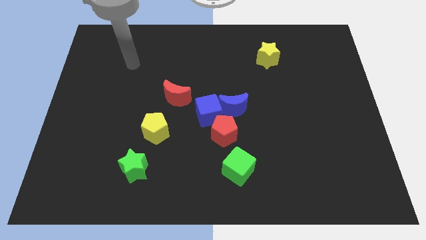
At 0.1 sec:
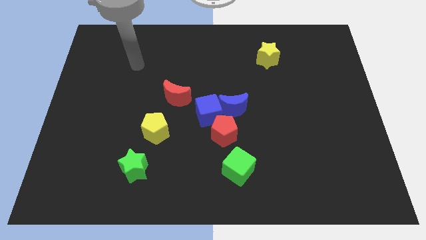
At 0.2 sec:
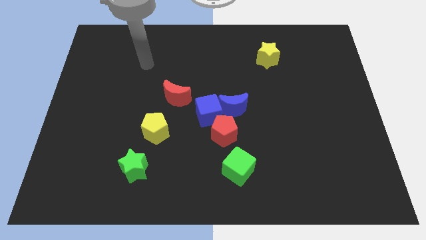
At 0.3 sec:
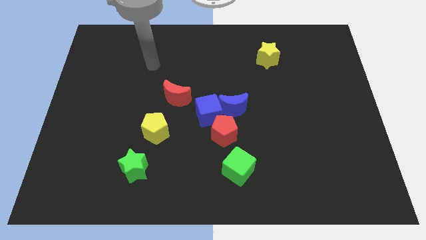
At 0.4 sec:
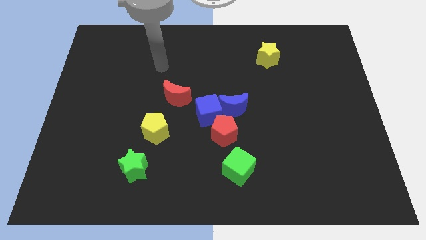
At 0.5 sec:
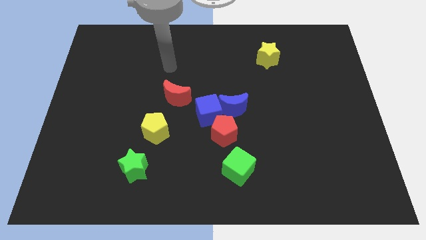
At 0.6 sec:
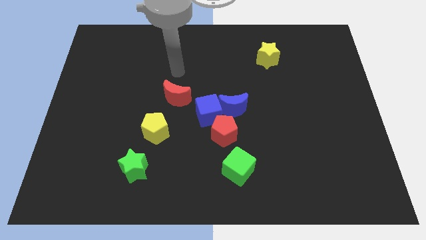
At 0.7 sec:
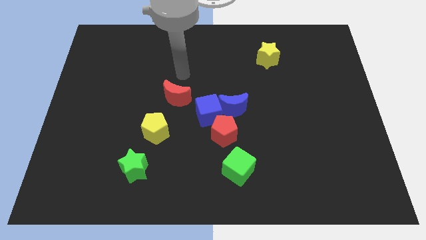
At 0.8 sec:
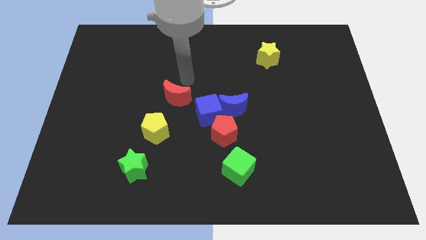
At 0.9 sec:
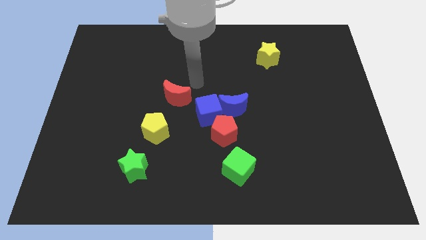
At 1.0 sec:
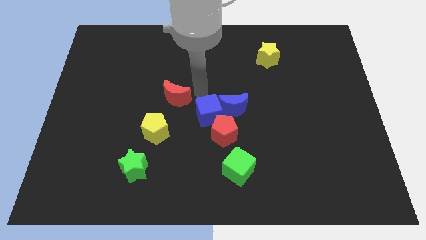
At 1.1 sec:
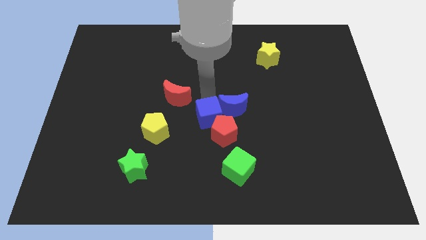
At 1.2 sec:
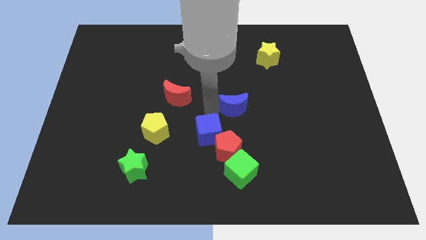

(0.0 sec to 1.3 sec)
separate the blue moon from the blue cube and red pentagon

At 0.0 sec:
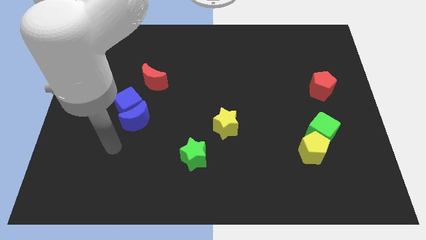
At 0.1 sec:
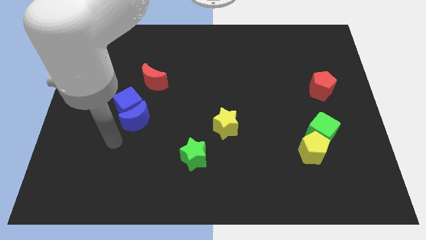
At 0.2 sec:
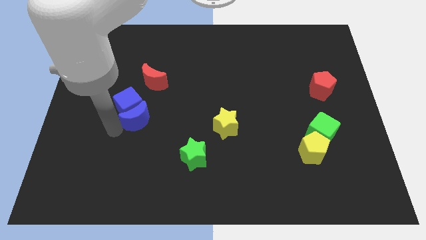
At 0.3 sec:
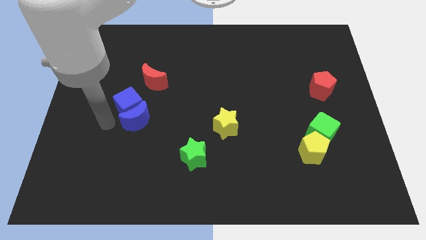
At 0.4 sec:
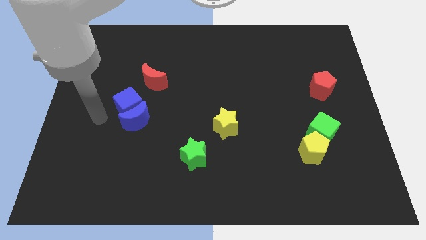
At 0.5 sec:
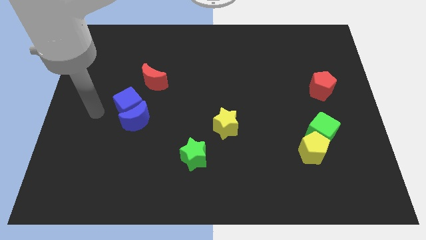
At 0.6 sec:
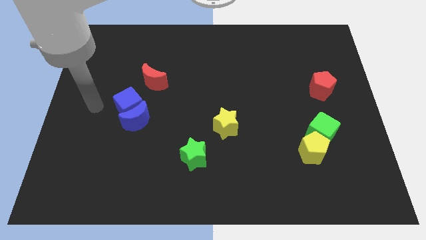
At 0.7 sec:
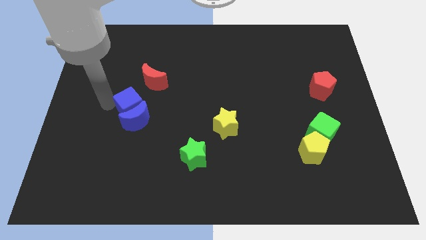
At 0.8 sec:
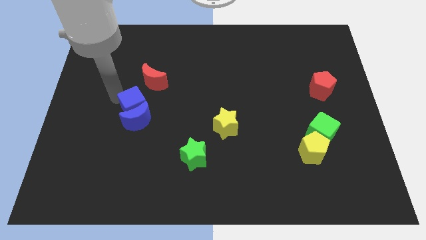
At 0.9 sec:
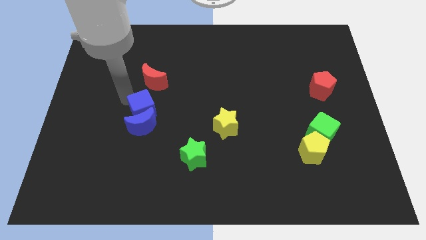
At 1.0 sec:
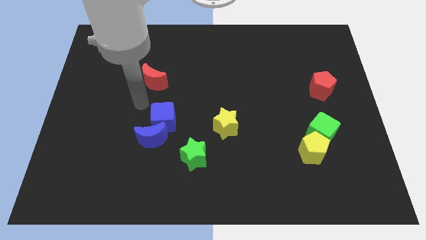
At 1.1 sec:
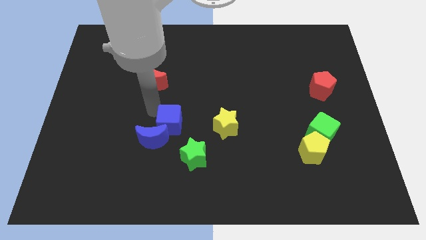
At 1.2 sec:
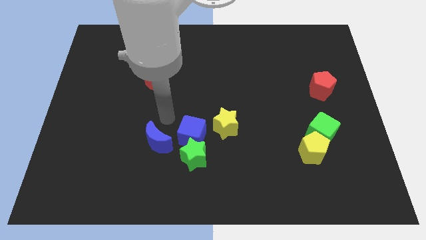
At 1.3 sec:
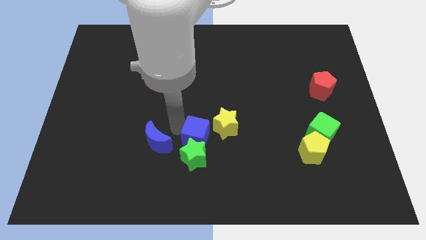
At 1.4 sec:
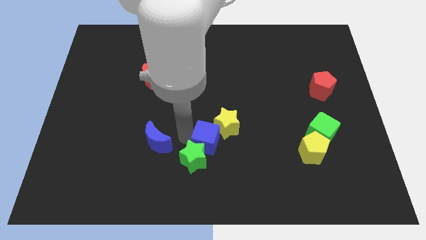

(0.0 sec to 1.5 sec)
separate the blue moon from the blue cube

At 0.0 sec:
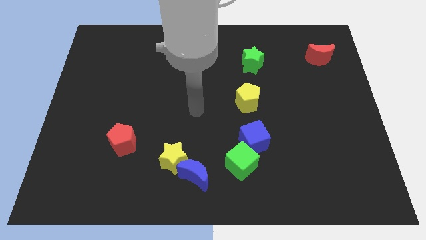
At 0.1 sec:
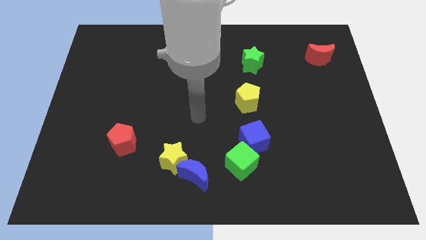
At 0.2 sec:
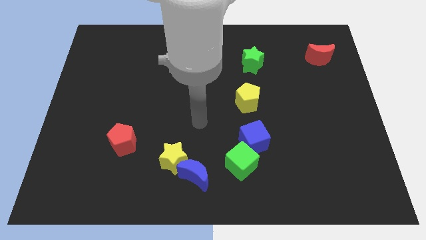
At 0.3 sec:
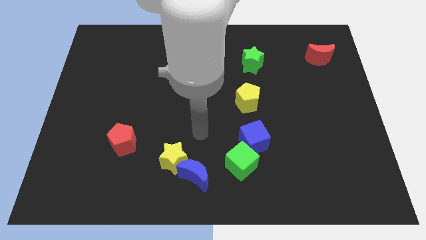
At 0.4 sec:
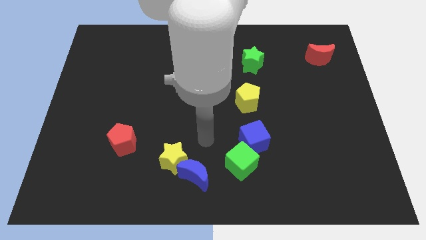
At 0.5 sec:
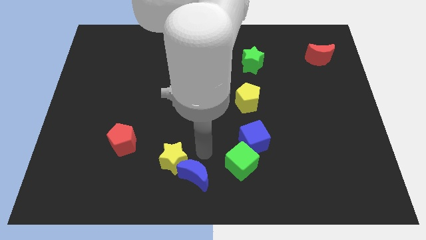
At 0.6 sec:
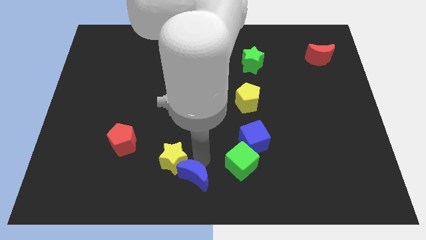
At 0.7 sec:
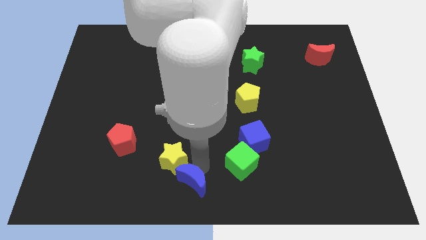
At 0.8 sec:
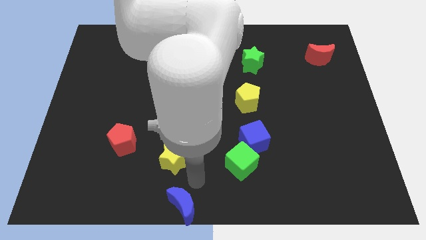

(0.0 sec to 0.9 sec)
pull the yellow star apart from the blue moon

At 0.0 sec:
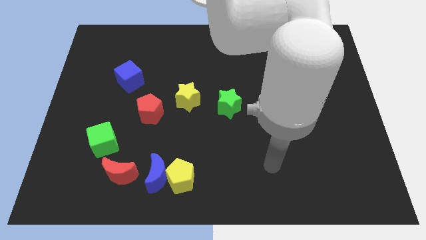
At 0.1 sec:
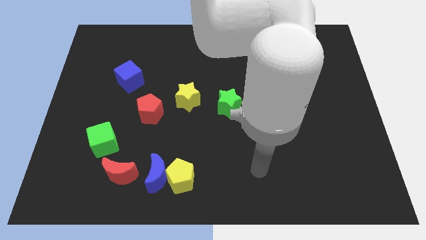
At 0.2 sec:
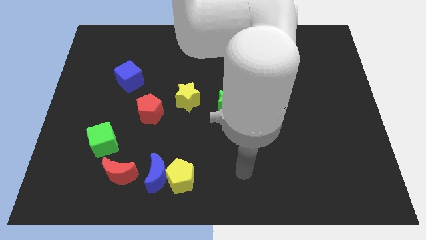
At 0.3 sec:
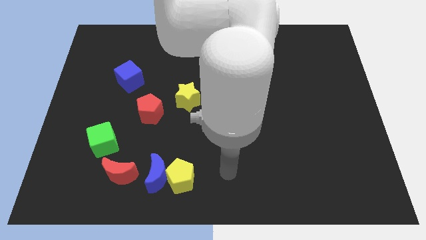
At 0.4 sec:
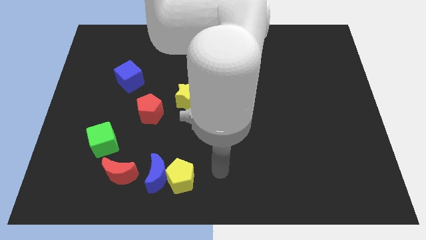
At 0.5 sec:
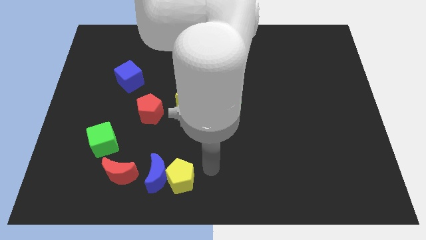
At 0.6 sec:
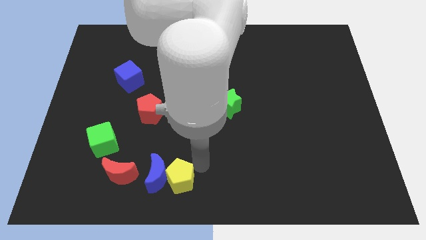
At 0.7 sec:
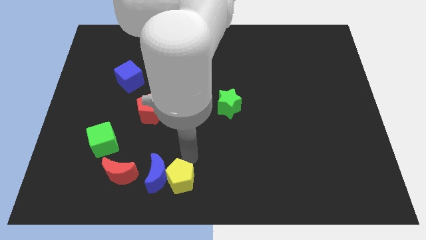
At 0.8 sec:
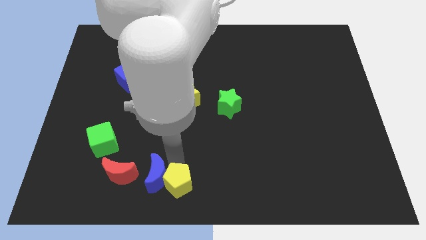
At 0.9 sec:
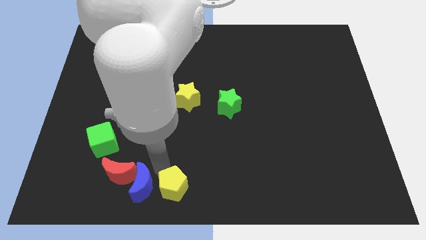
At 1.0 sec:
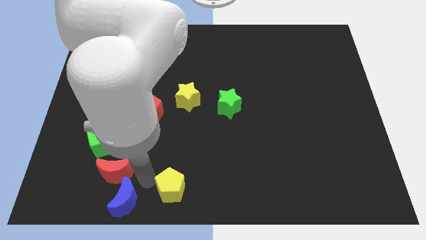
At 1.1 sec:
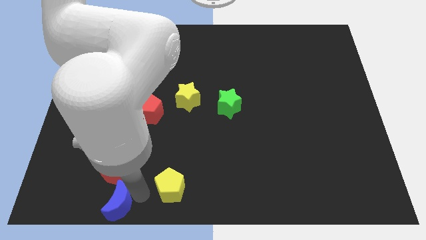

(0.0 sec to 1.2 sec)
pull the yellow pentagon apart from the blue moon

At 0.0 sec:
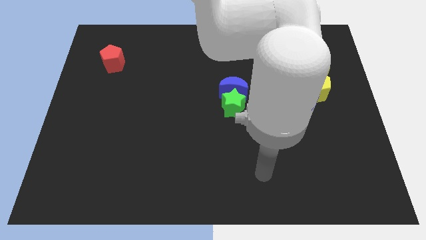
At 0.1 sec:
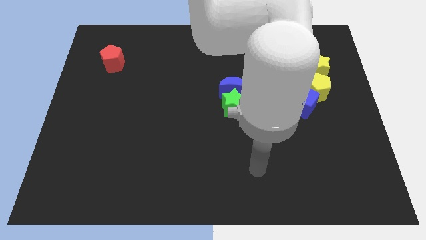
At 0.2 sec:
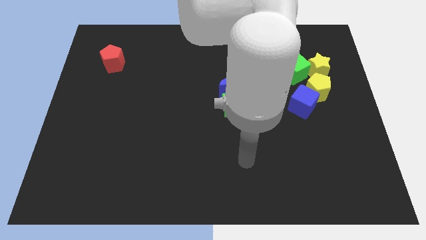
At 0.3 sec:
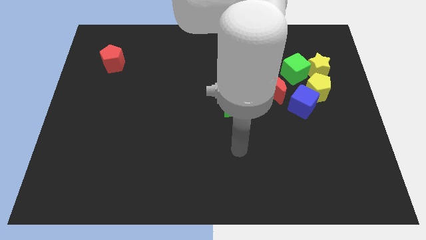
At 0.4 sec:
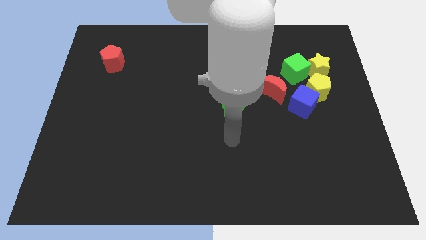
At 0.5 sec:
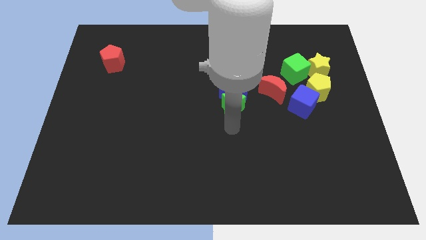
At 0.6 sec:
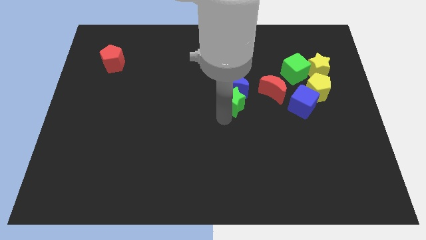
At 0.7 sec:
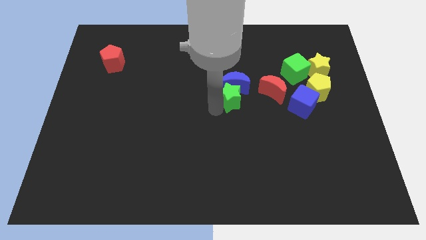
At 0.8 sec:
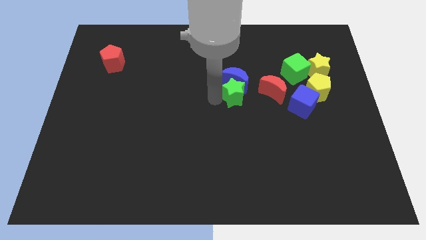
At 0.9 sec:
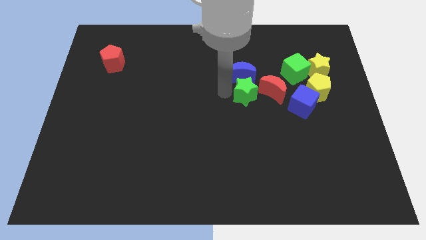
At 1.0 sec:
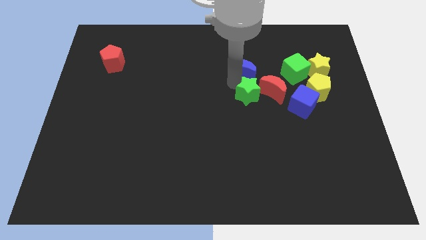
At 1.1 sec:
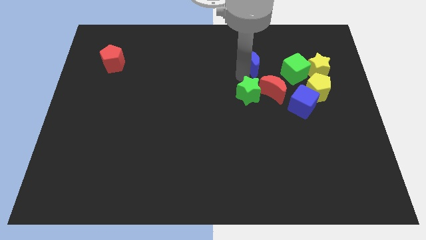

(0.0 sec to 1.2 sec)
separate the green star from the blue moon

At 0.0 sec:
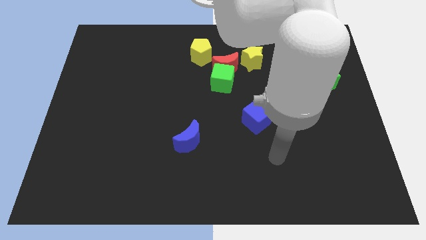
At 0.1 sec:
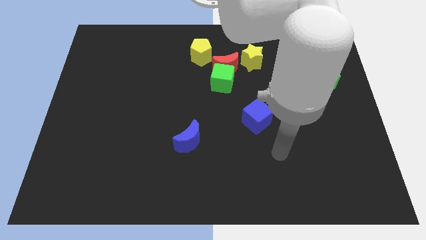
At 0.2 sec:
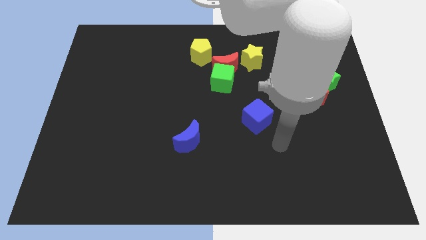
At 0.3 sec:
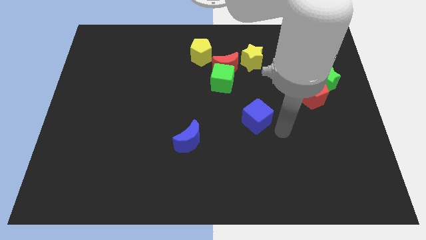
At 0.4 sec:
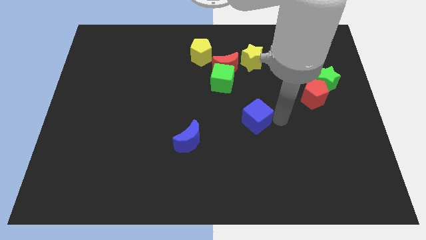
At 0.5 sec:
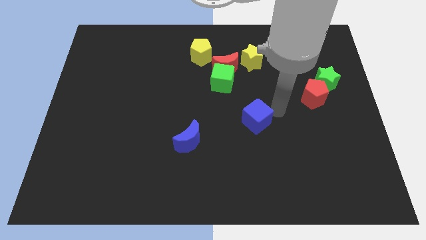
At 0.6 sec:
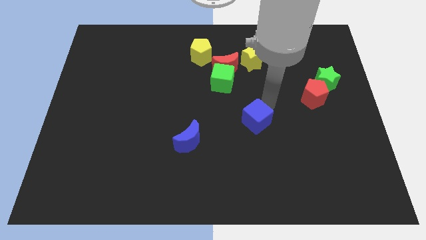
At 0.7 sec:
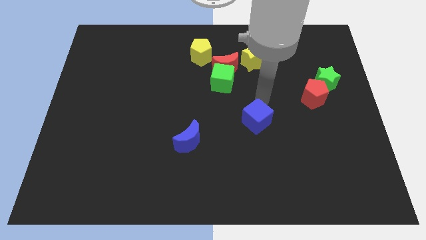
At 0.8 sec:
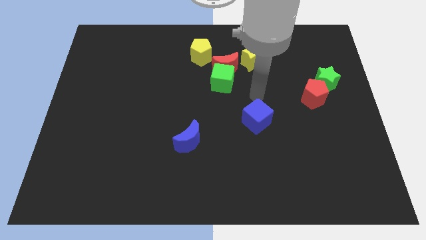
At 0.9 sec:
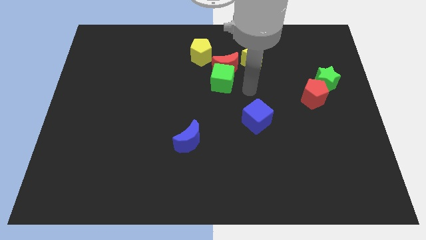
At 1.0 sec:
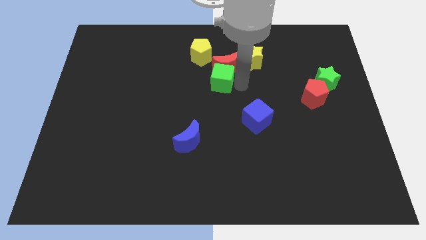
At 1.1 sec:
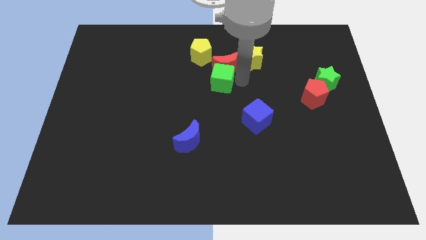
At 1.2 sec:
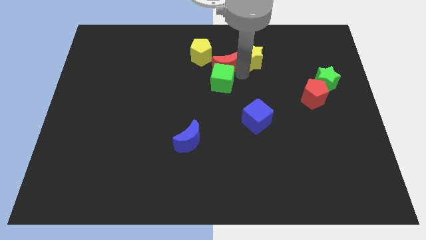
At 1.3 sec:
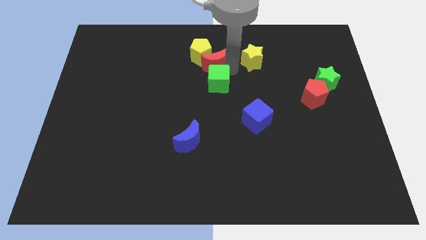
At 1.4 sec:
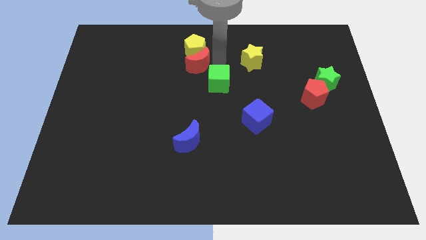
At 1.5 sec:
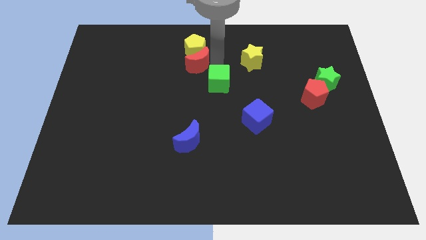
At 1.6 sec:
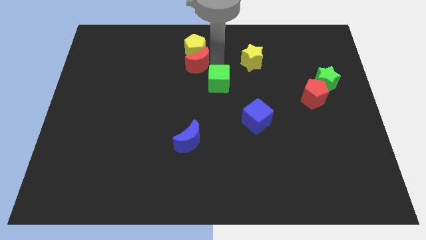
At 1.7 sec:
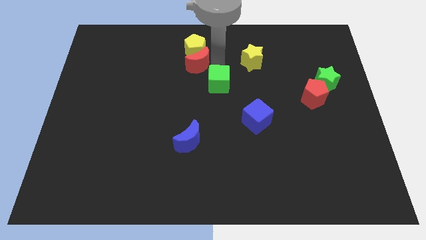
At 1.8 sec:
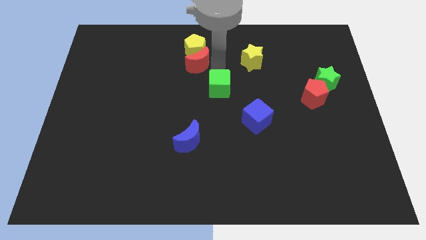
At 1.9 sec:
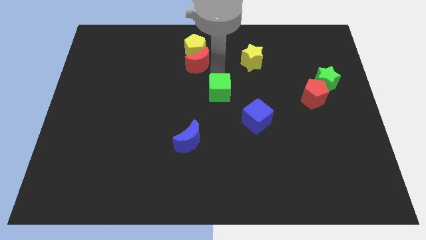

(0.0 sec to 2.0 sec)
separate the green cube from the red moon

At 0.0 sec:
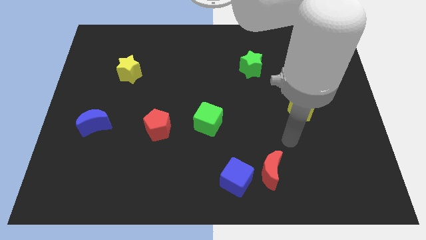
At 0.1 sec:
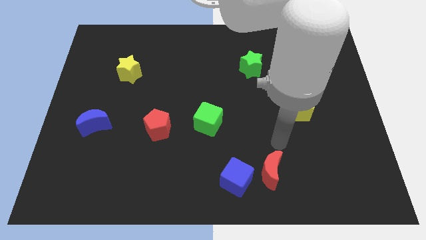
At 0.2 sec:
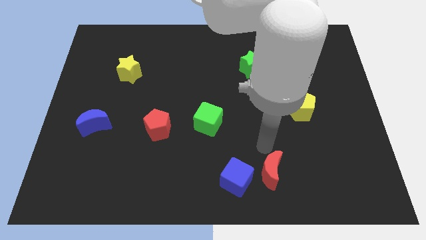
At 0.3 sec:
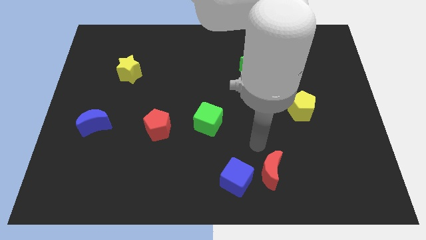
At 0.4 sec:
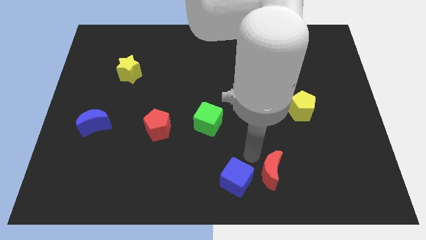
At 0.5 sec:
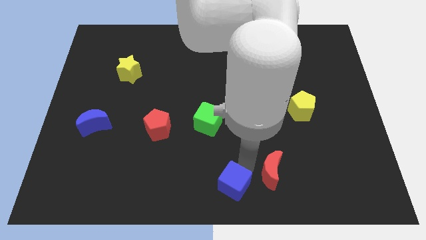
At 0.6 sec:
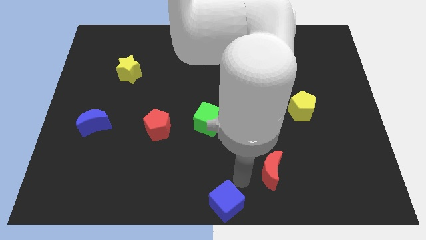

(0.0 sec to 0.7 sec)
move the red moon away from the blue cube

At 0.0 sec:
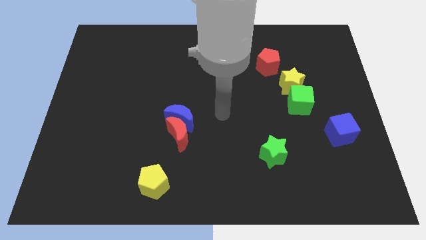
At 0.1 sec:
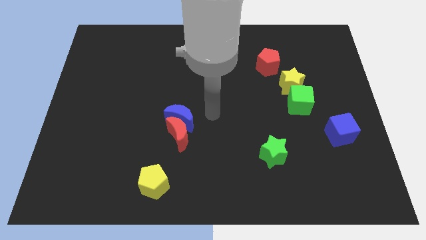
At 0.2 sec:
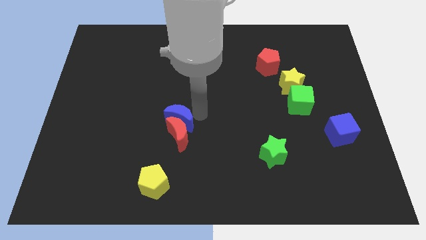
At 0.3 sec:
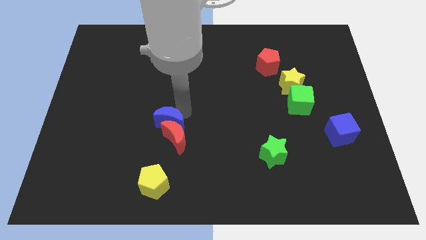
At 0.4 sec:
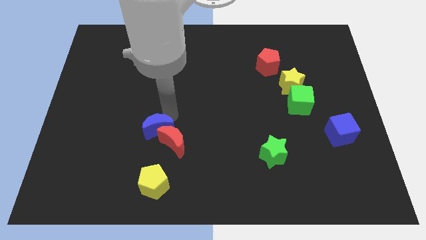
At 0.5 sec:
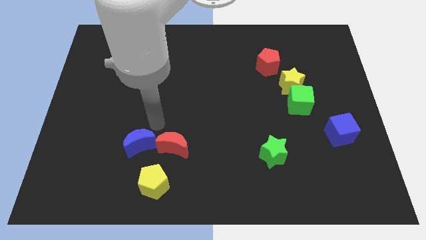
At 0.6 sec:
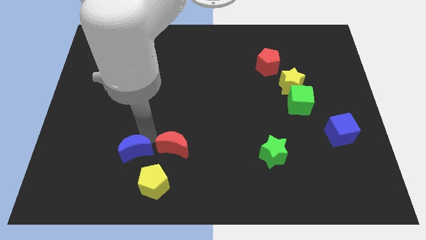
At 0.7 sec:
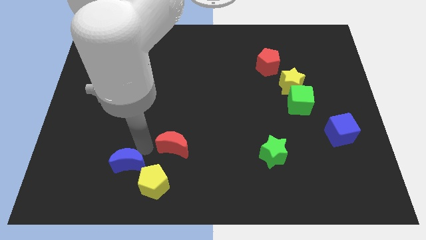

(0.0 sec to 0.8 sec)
pull the red moon apart from the blue moon
